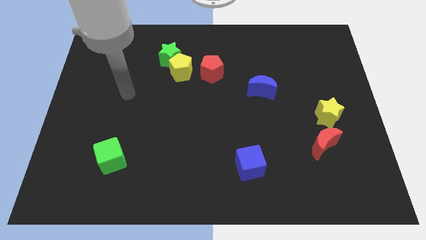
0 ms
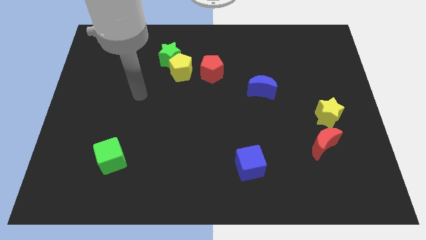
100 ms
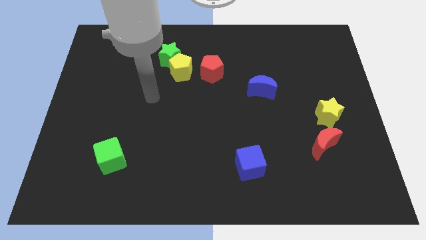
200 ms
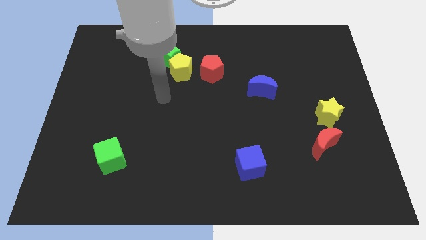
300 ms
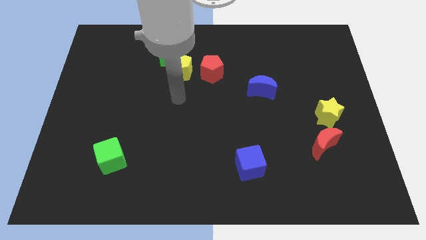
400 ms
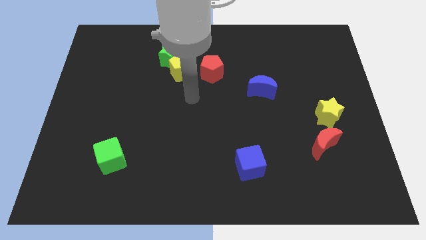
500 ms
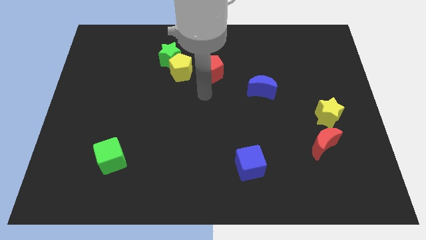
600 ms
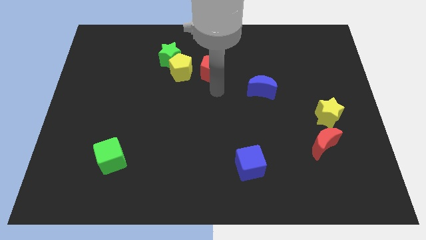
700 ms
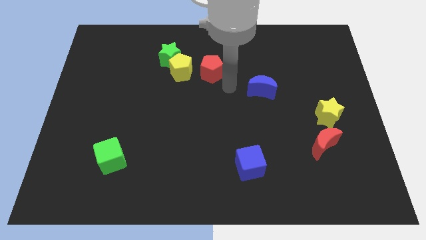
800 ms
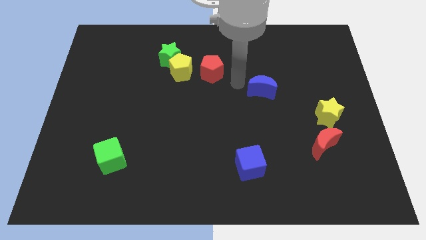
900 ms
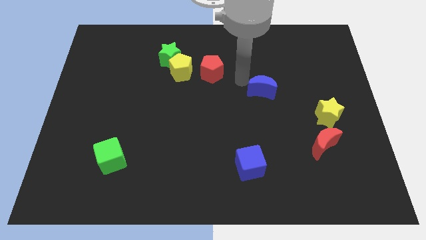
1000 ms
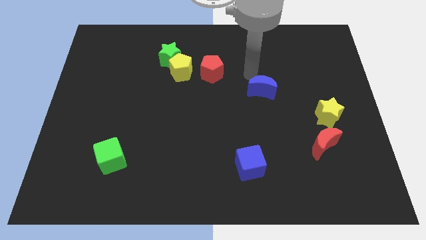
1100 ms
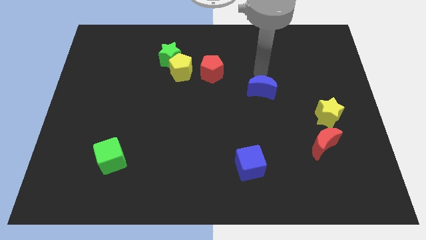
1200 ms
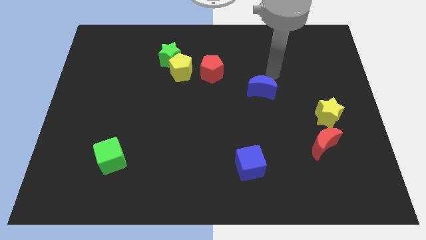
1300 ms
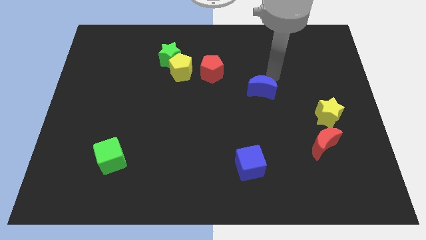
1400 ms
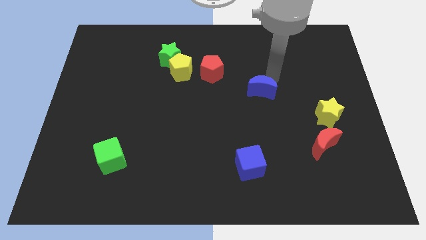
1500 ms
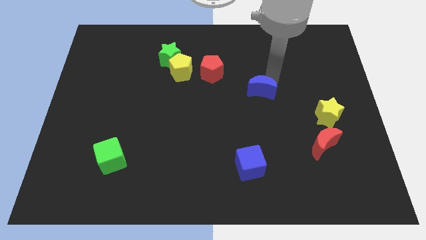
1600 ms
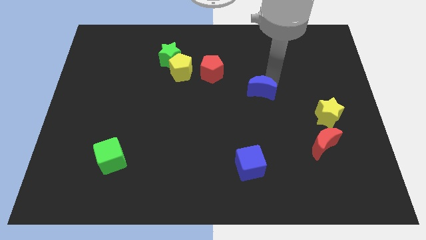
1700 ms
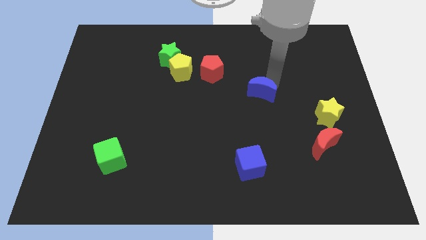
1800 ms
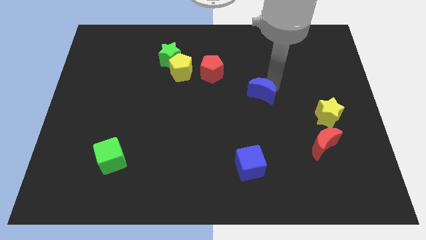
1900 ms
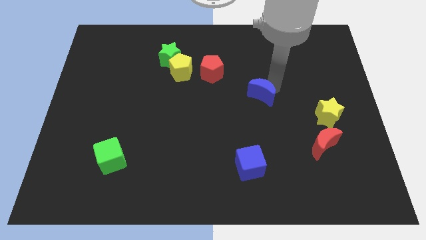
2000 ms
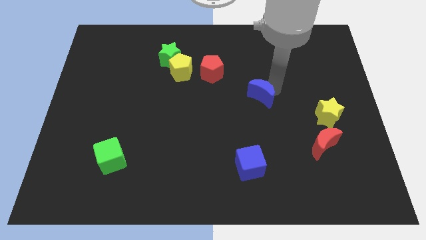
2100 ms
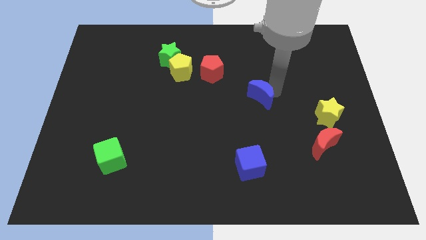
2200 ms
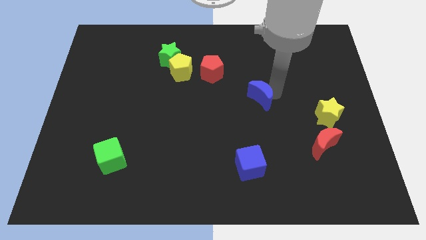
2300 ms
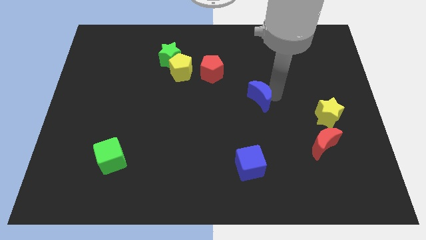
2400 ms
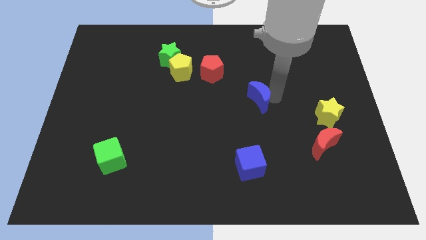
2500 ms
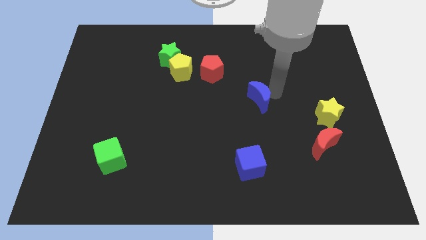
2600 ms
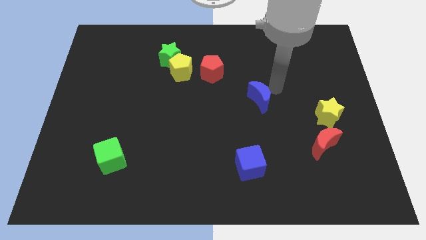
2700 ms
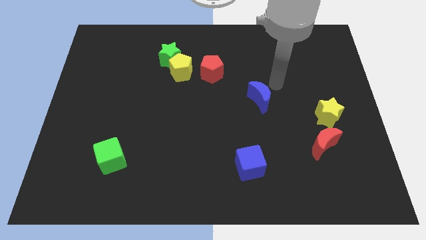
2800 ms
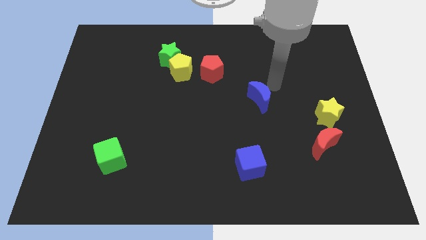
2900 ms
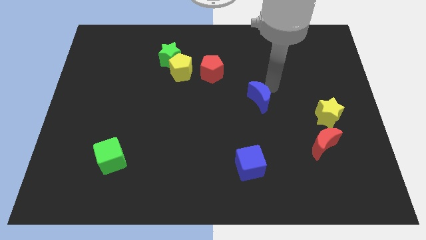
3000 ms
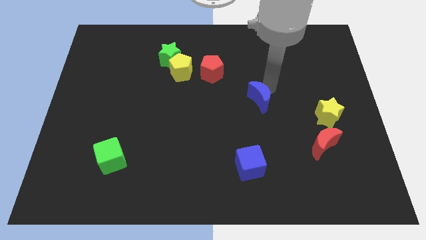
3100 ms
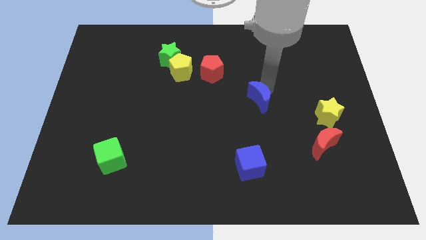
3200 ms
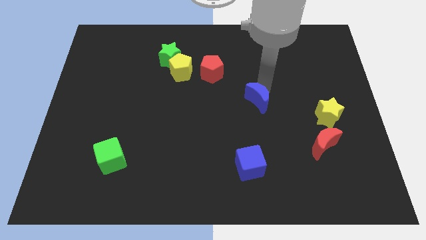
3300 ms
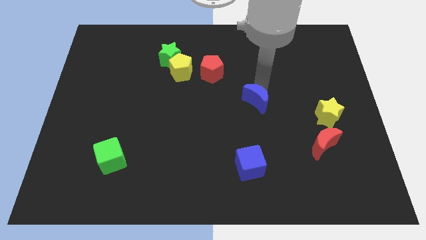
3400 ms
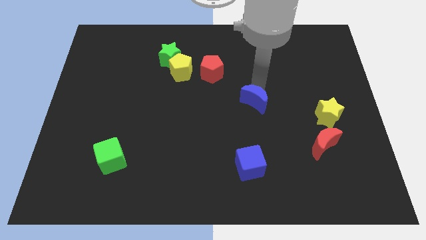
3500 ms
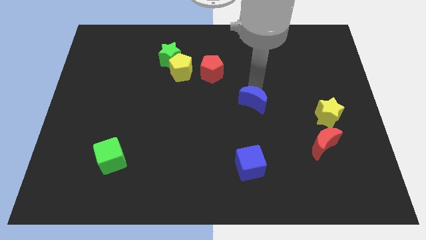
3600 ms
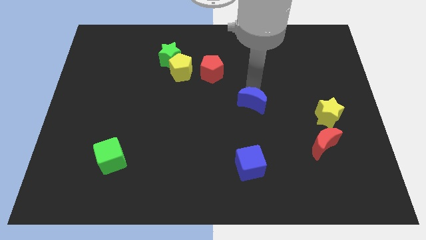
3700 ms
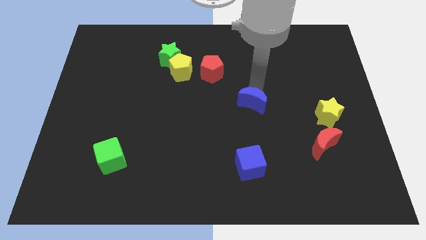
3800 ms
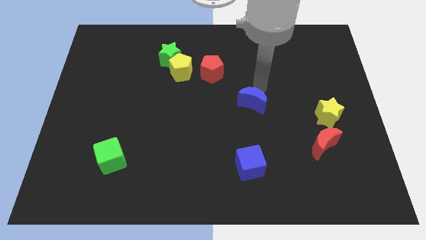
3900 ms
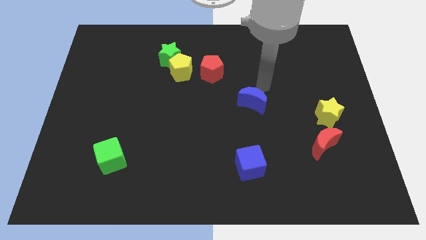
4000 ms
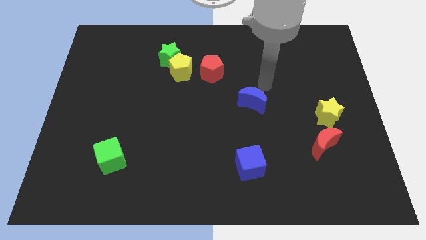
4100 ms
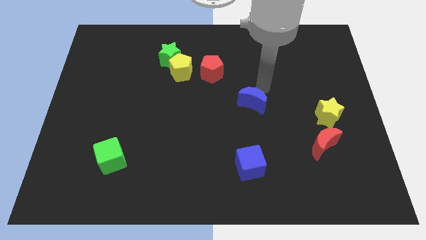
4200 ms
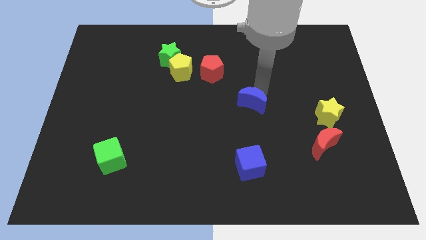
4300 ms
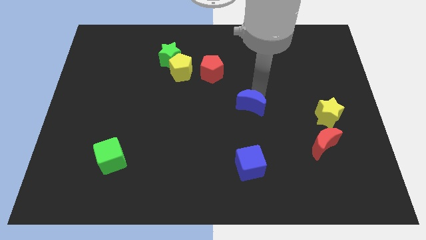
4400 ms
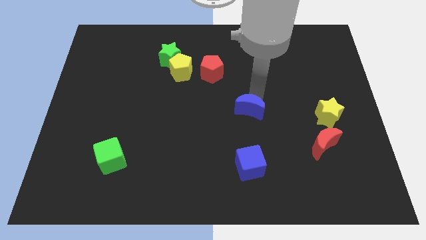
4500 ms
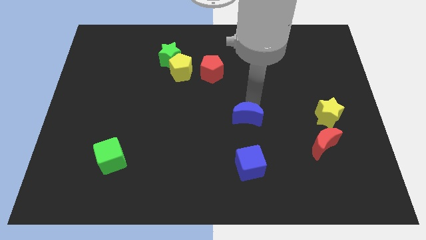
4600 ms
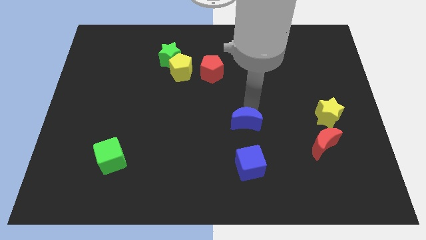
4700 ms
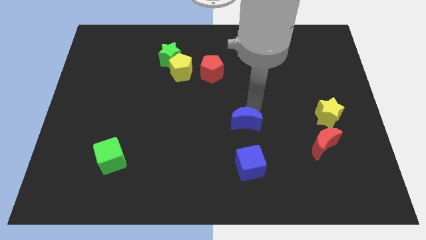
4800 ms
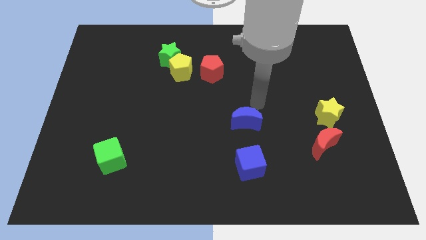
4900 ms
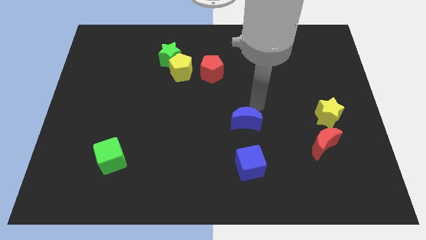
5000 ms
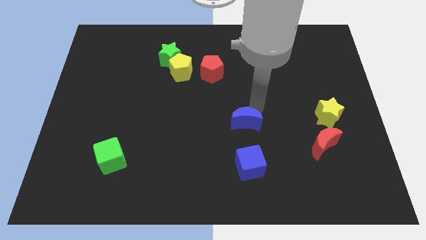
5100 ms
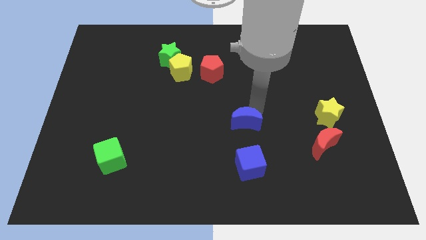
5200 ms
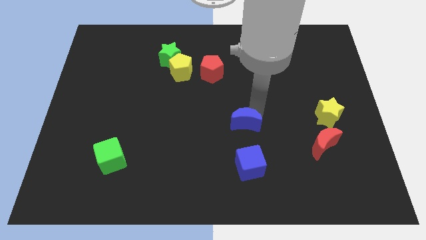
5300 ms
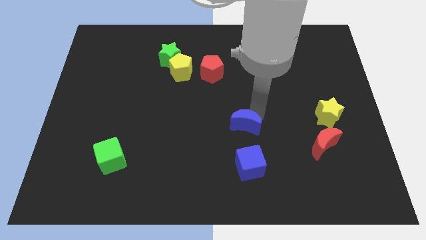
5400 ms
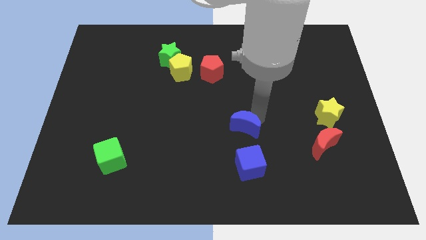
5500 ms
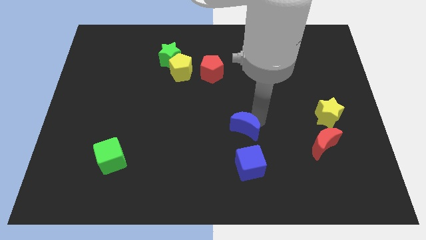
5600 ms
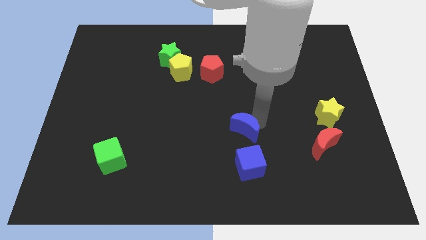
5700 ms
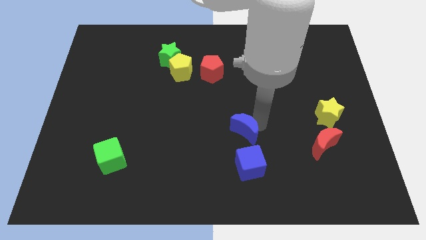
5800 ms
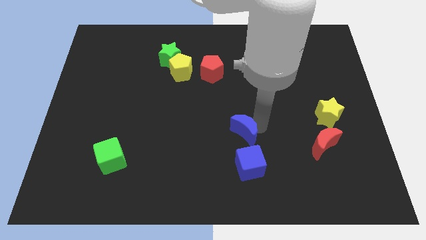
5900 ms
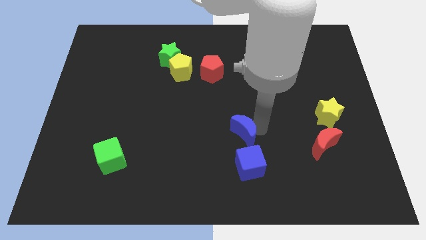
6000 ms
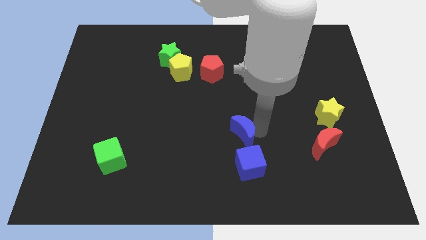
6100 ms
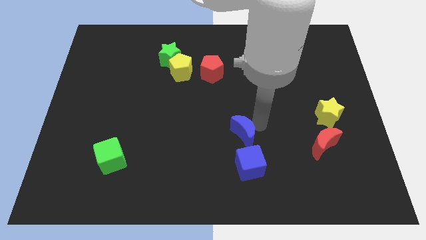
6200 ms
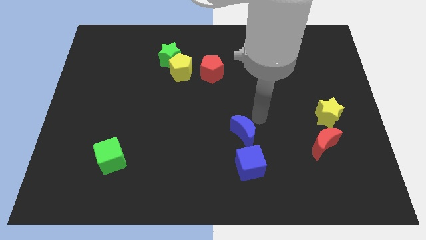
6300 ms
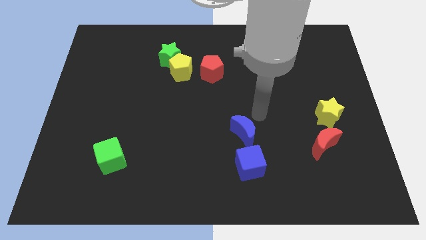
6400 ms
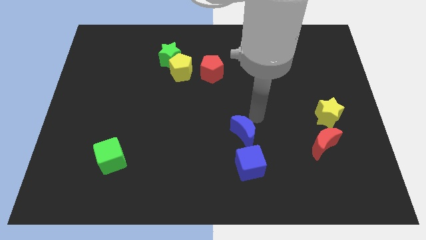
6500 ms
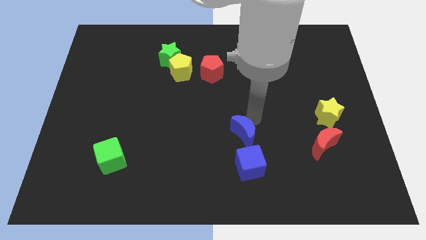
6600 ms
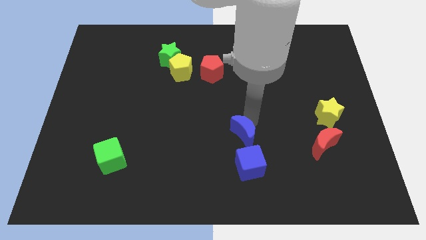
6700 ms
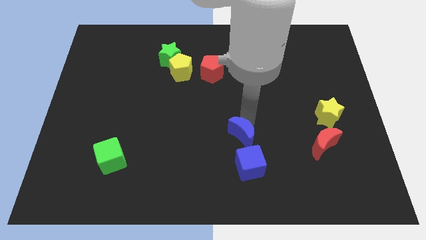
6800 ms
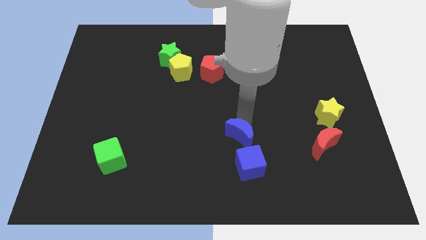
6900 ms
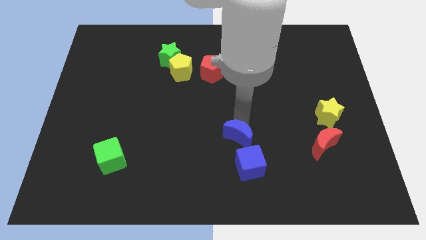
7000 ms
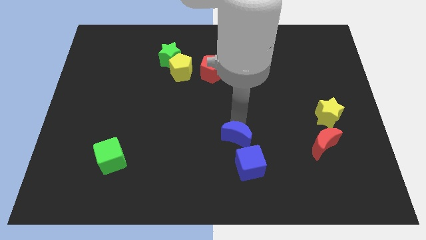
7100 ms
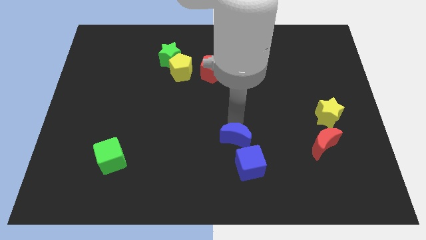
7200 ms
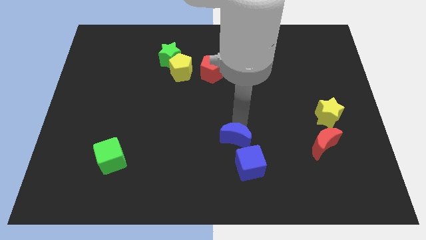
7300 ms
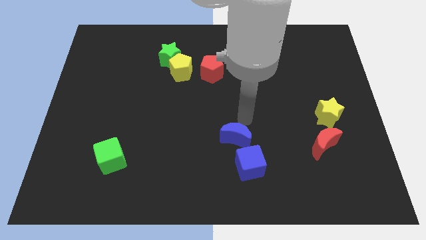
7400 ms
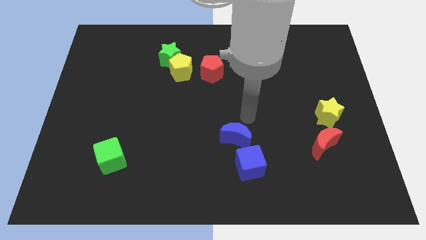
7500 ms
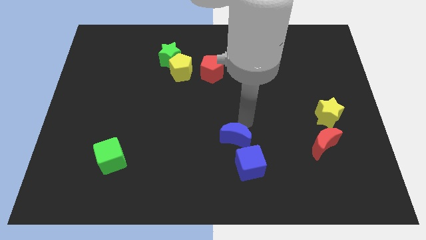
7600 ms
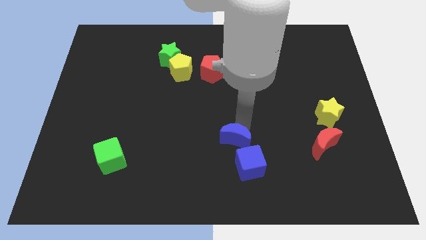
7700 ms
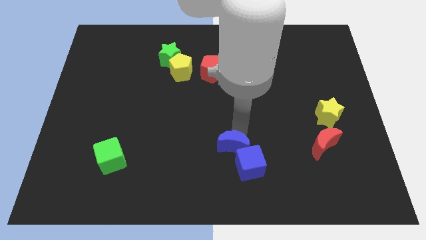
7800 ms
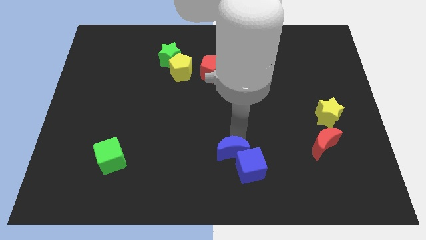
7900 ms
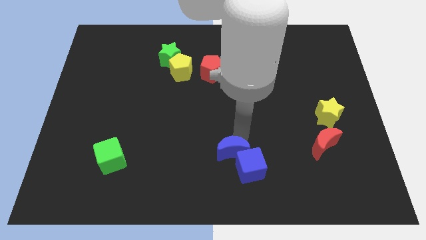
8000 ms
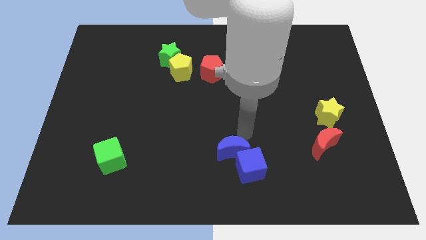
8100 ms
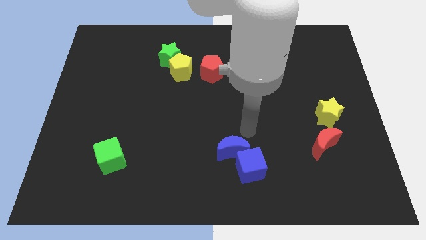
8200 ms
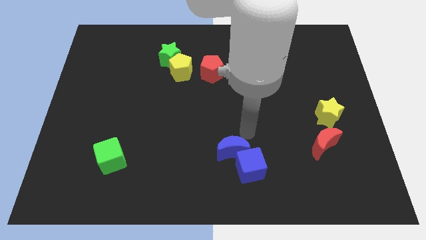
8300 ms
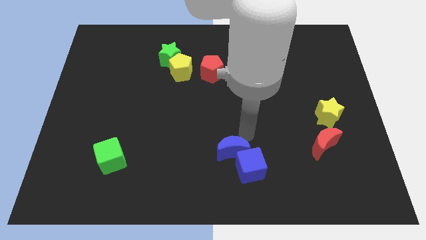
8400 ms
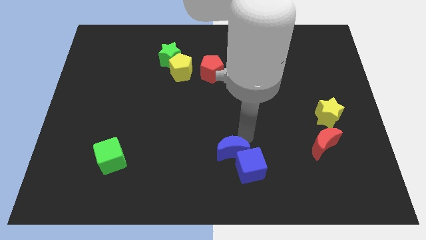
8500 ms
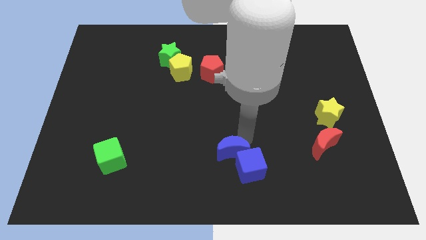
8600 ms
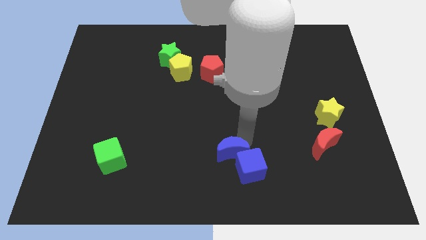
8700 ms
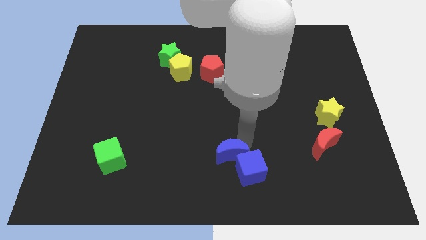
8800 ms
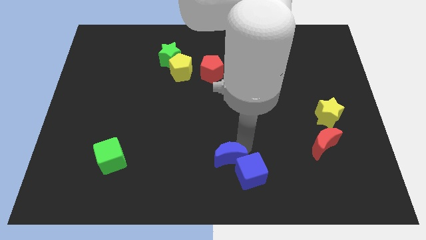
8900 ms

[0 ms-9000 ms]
put the blue moon to the bottom
